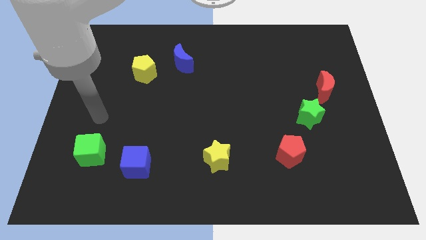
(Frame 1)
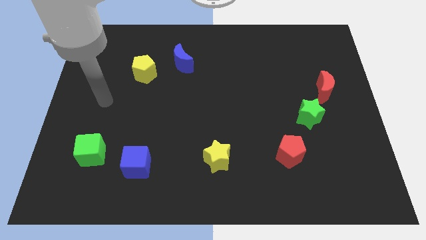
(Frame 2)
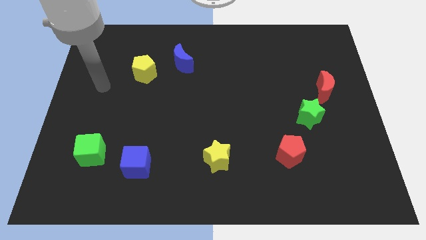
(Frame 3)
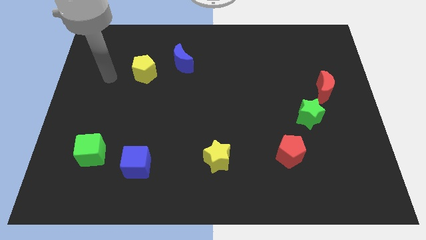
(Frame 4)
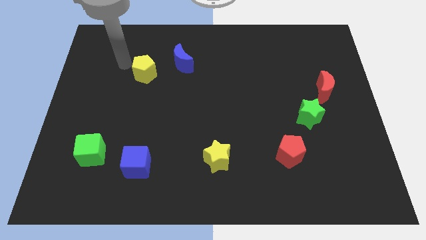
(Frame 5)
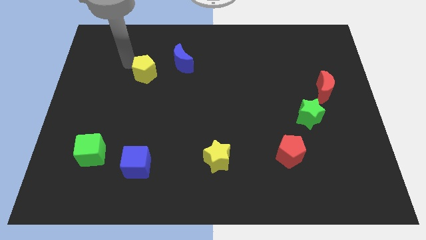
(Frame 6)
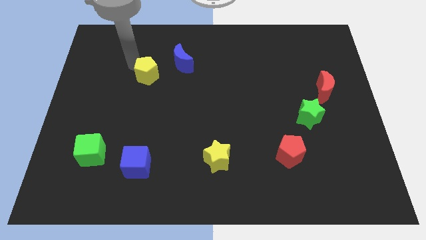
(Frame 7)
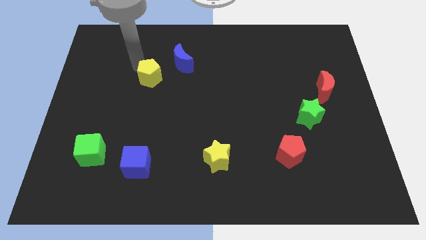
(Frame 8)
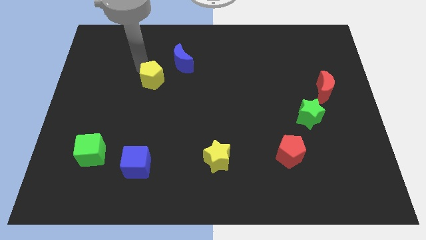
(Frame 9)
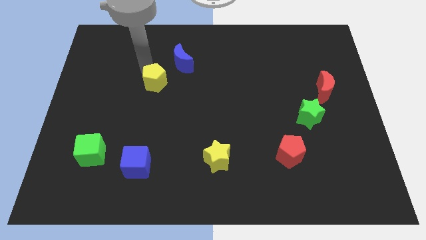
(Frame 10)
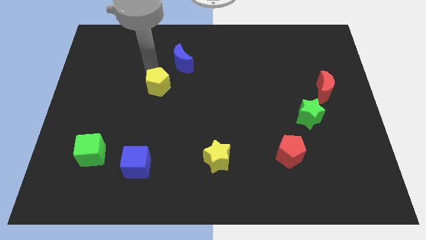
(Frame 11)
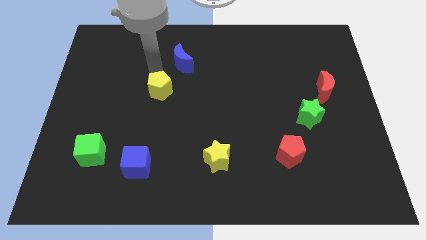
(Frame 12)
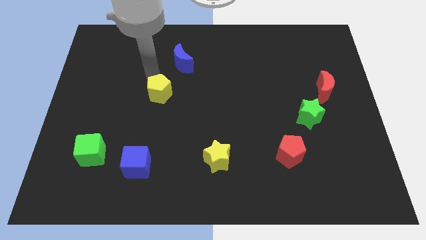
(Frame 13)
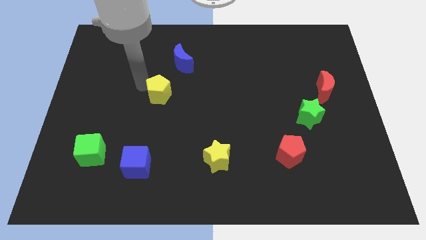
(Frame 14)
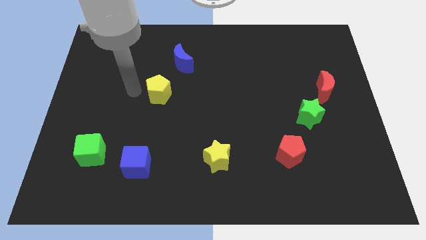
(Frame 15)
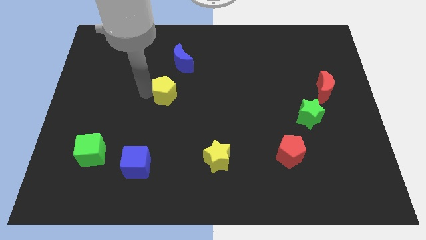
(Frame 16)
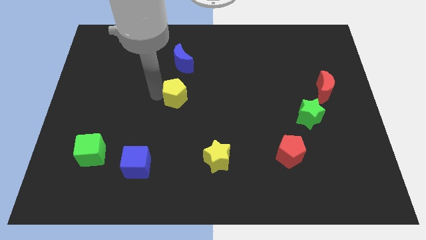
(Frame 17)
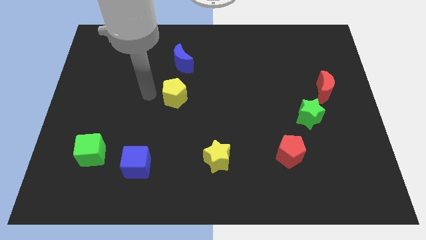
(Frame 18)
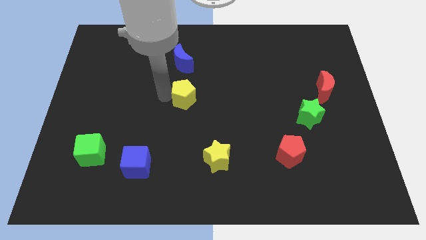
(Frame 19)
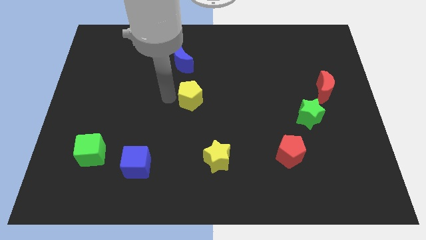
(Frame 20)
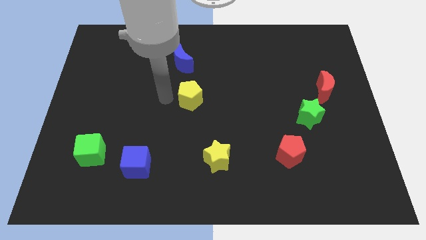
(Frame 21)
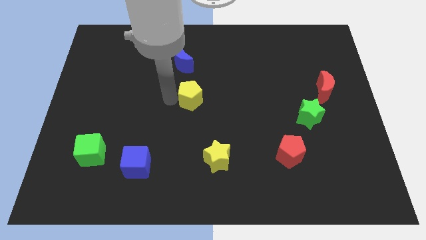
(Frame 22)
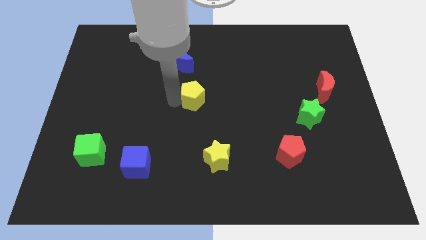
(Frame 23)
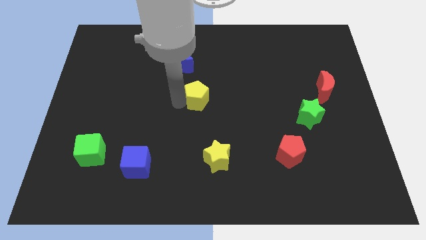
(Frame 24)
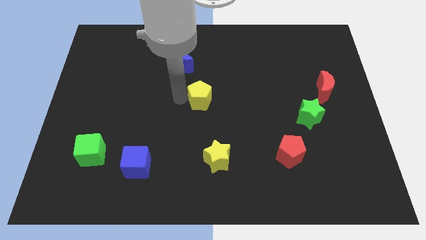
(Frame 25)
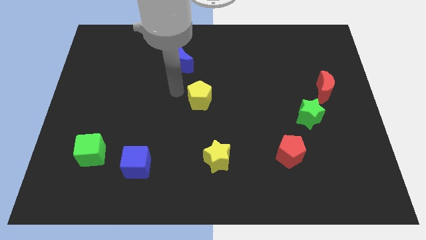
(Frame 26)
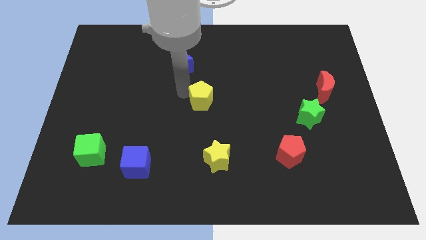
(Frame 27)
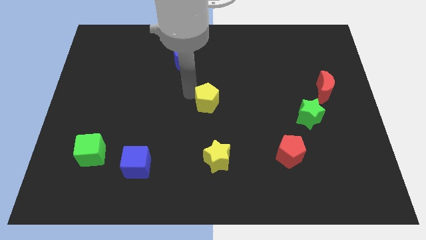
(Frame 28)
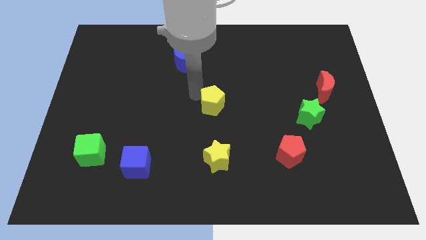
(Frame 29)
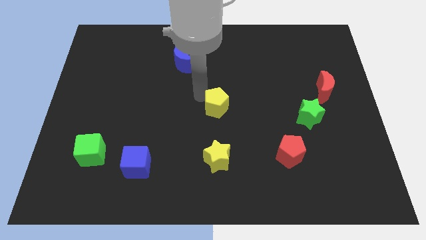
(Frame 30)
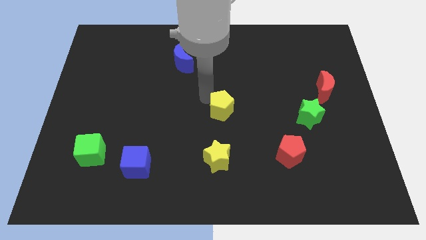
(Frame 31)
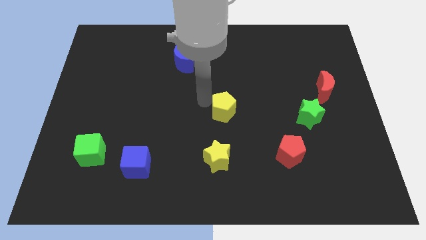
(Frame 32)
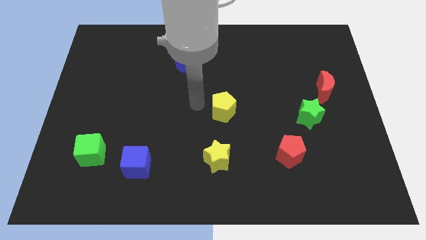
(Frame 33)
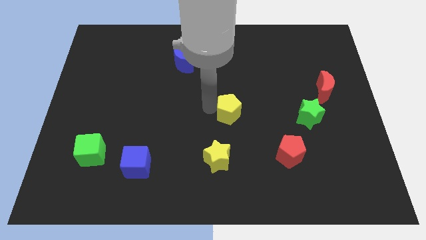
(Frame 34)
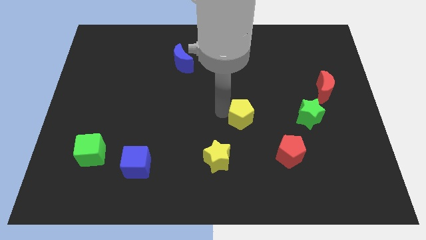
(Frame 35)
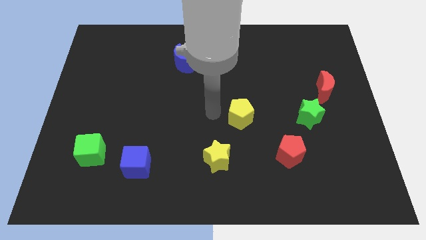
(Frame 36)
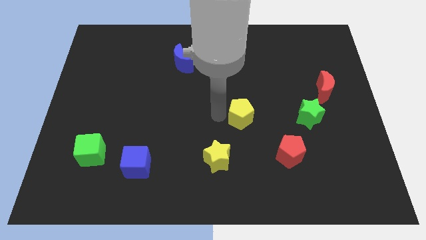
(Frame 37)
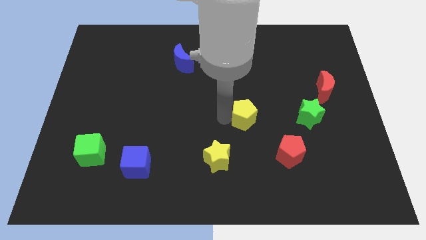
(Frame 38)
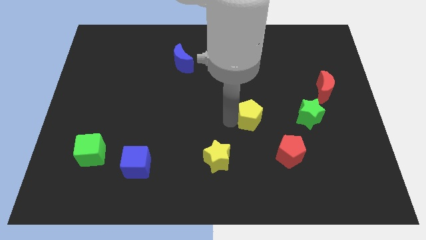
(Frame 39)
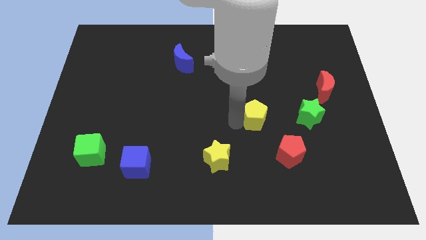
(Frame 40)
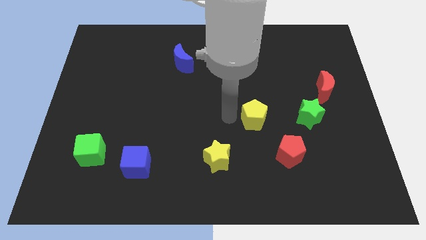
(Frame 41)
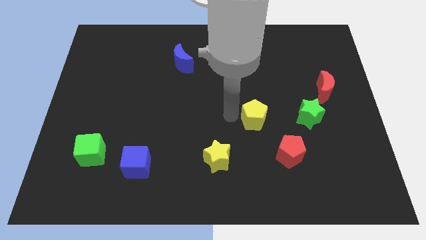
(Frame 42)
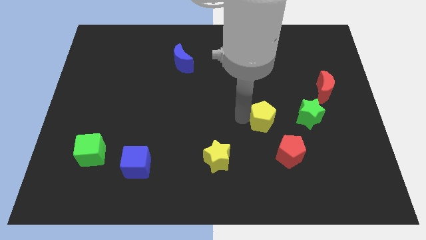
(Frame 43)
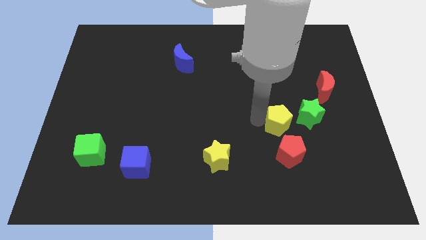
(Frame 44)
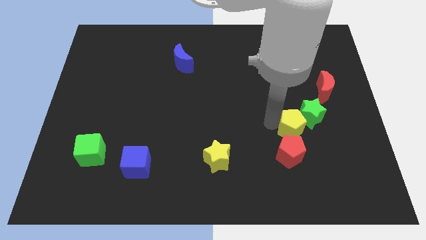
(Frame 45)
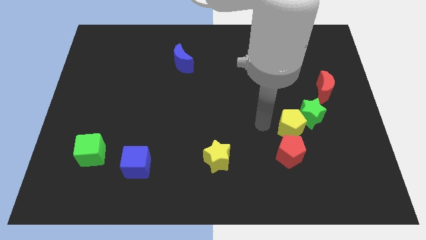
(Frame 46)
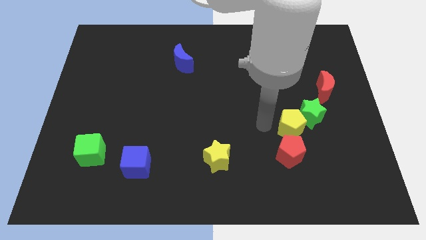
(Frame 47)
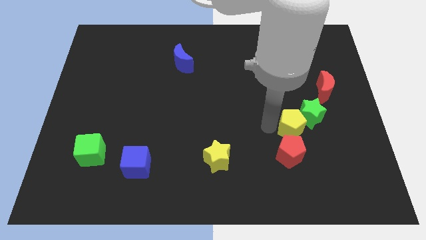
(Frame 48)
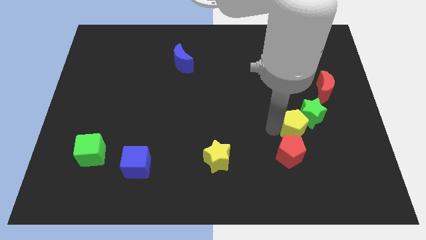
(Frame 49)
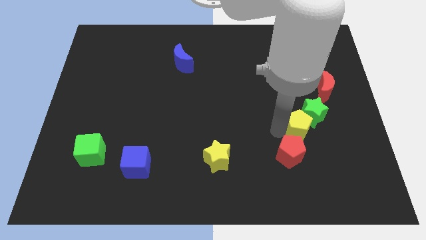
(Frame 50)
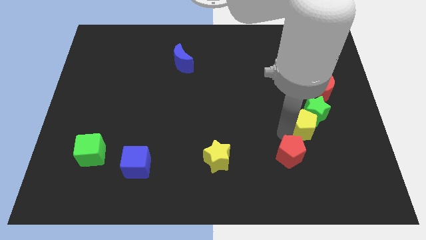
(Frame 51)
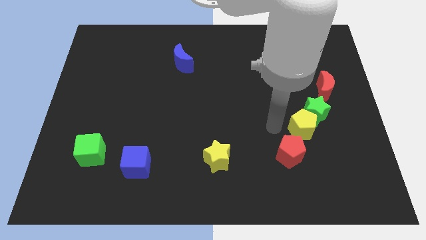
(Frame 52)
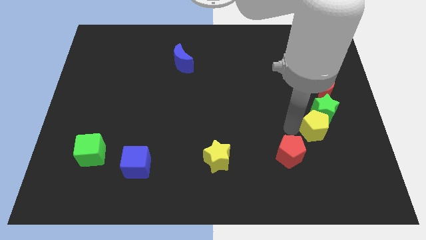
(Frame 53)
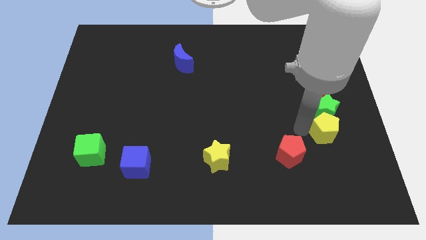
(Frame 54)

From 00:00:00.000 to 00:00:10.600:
move the yellow pentagon to the bottom right of the green star

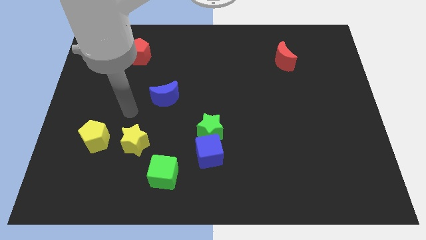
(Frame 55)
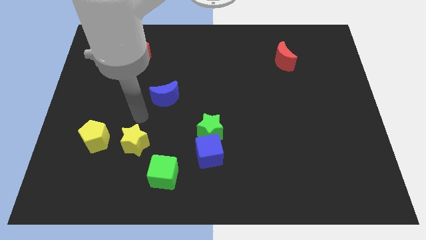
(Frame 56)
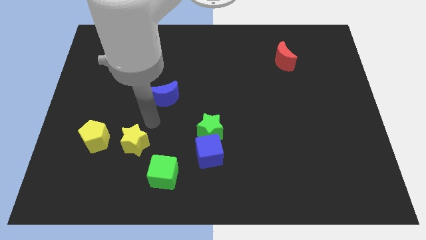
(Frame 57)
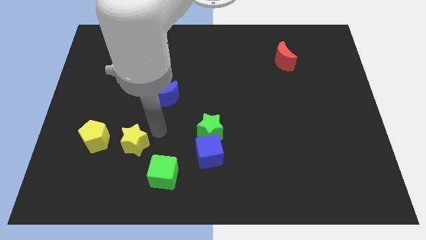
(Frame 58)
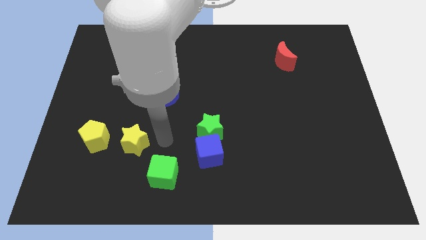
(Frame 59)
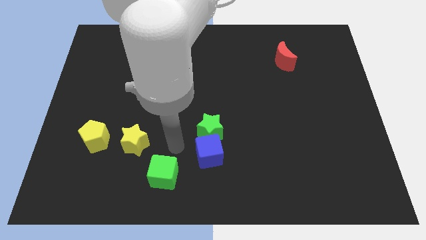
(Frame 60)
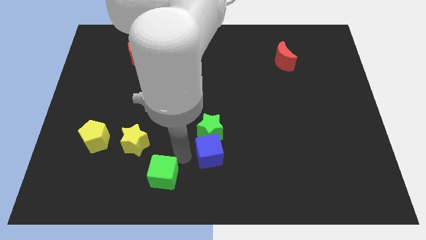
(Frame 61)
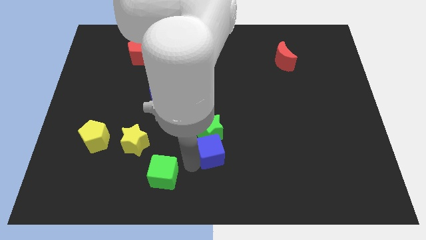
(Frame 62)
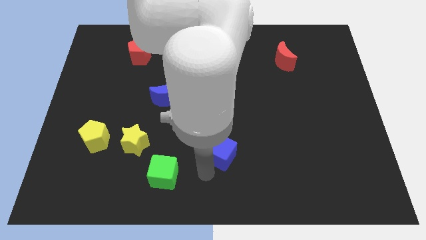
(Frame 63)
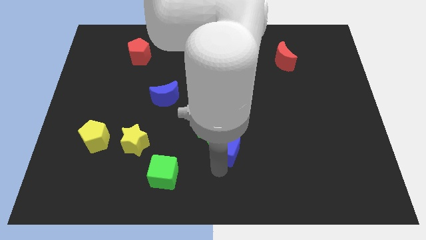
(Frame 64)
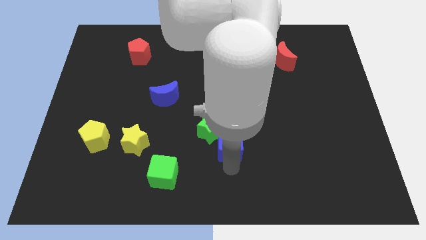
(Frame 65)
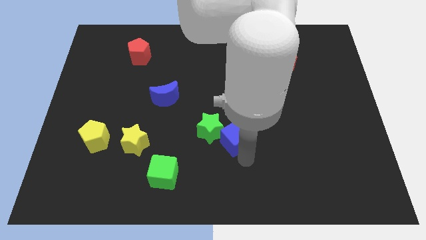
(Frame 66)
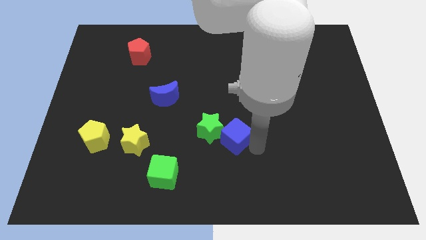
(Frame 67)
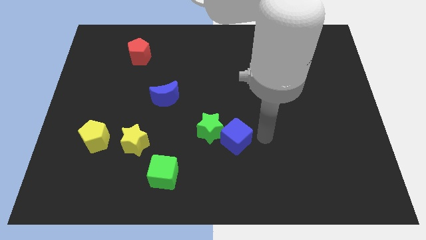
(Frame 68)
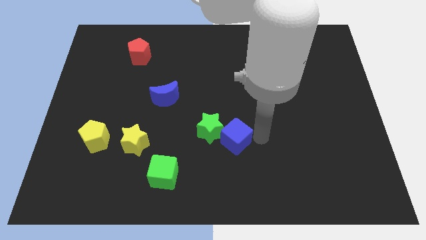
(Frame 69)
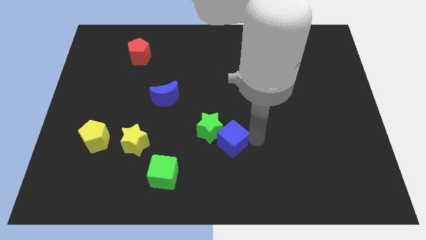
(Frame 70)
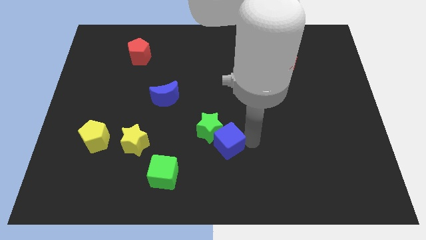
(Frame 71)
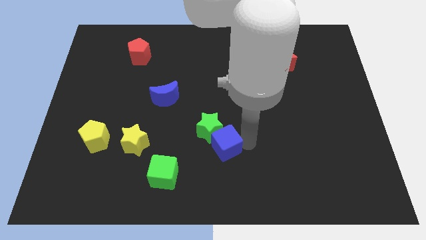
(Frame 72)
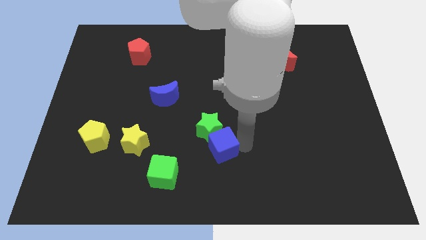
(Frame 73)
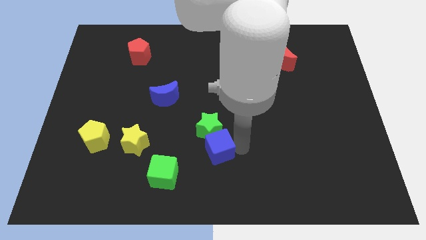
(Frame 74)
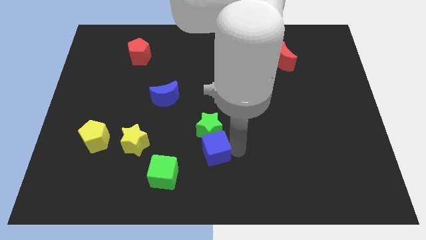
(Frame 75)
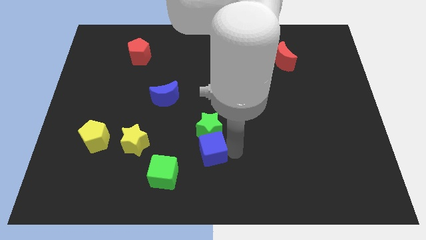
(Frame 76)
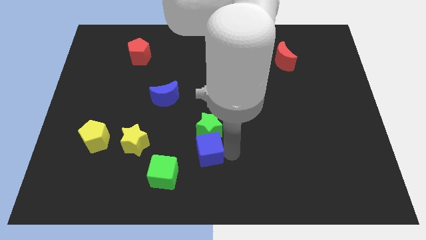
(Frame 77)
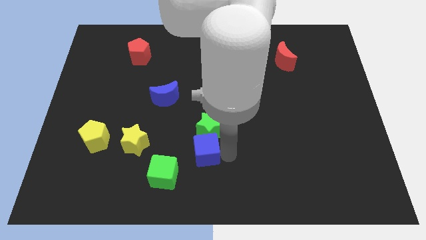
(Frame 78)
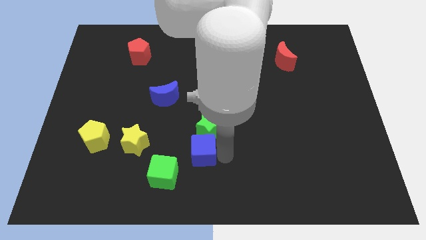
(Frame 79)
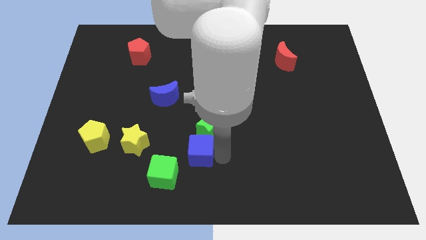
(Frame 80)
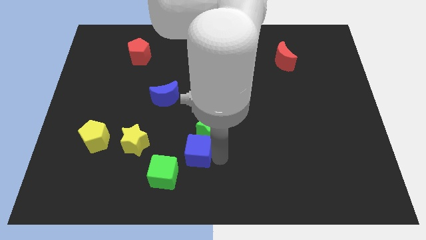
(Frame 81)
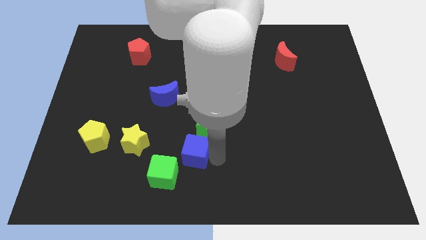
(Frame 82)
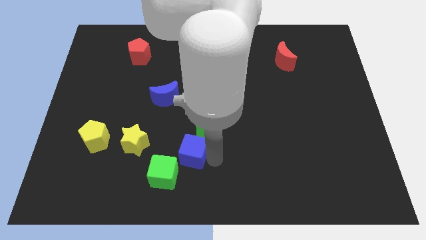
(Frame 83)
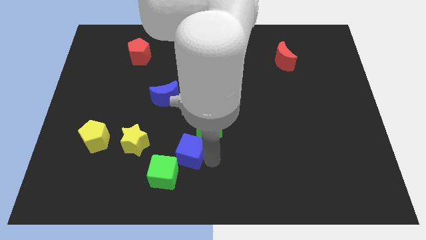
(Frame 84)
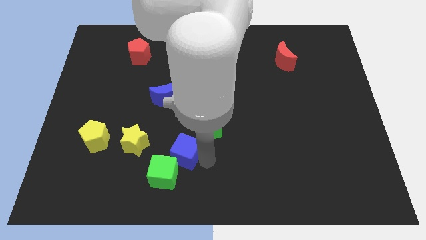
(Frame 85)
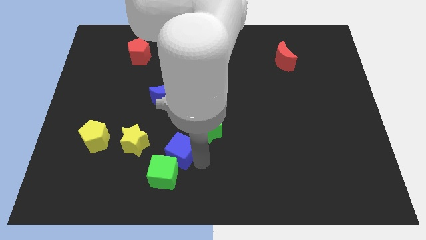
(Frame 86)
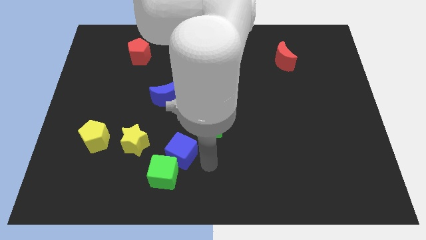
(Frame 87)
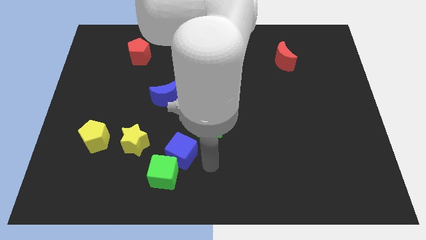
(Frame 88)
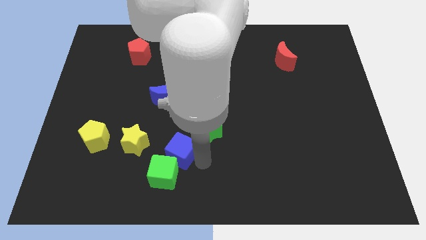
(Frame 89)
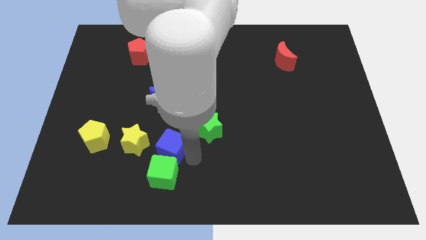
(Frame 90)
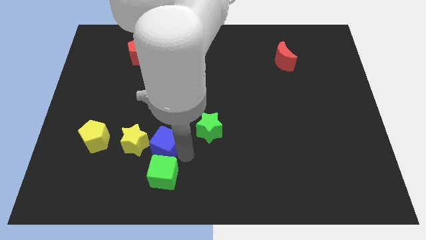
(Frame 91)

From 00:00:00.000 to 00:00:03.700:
move the blue cube to the right side of the yellow pentagon
